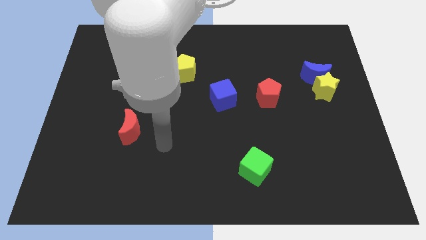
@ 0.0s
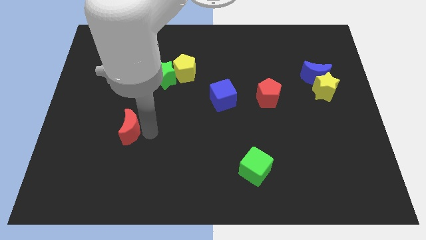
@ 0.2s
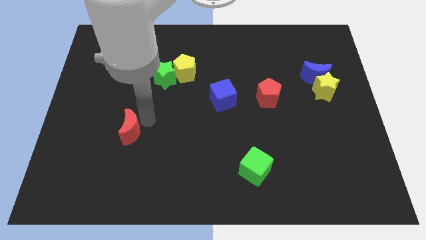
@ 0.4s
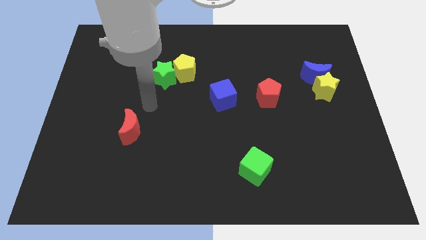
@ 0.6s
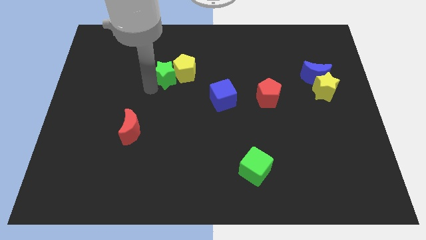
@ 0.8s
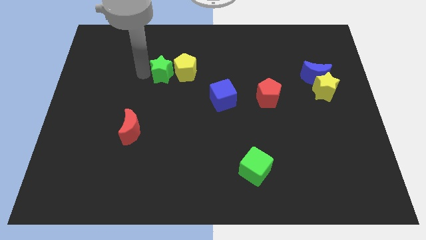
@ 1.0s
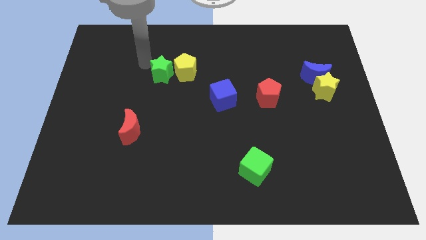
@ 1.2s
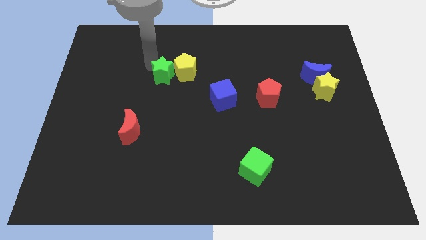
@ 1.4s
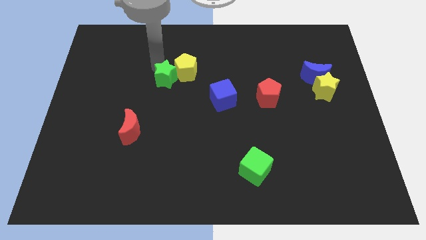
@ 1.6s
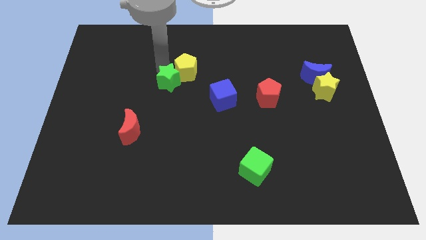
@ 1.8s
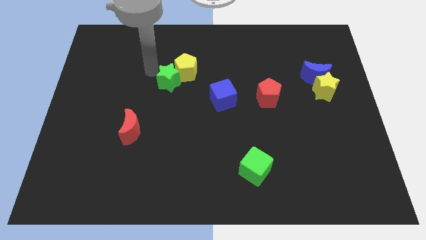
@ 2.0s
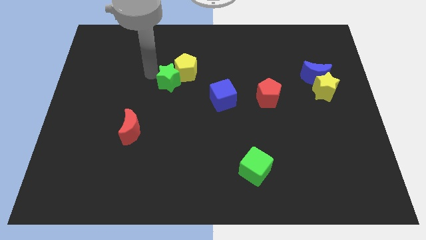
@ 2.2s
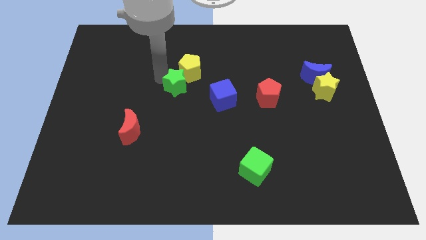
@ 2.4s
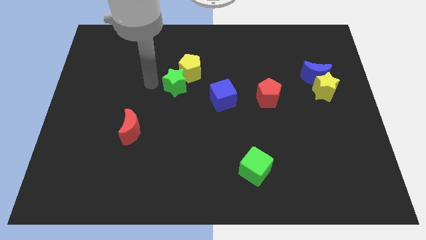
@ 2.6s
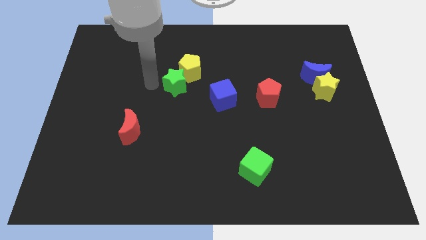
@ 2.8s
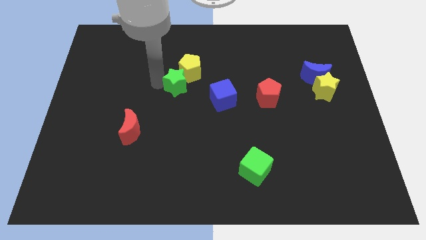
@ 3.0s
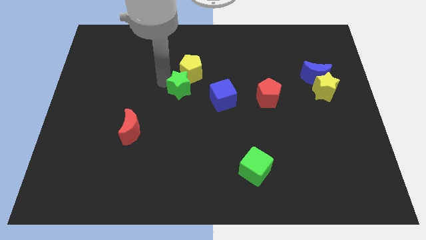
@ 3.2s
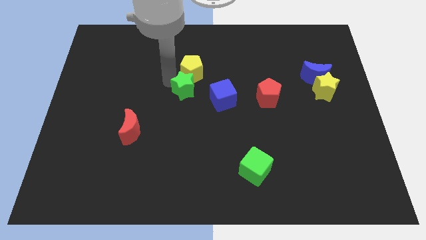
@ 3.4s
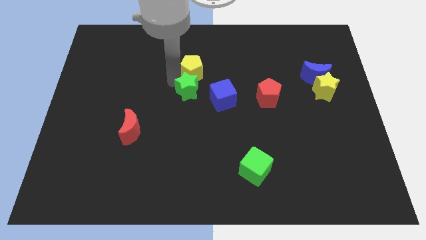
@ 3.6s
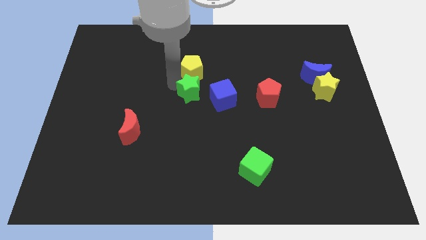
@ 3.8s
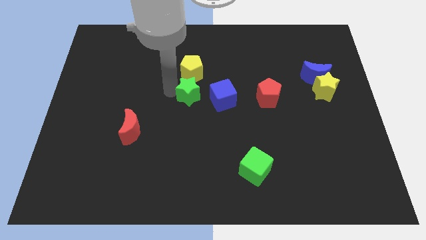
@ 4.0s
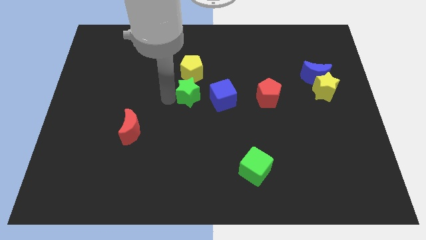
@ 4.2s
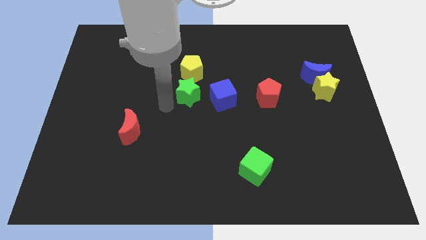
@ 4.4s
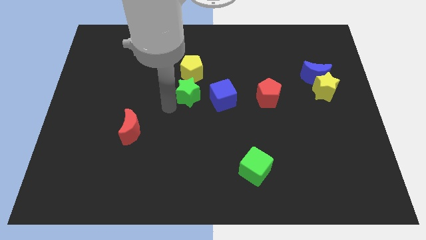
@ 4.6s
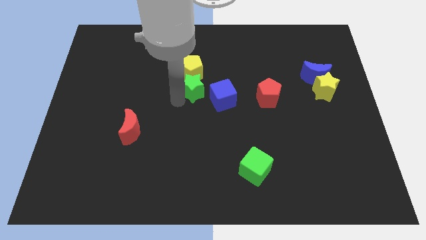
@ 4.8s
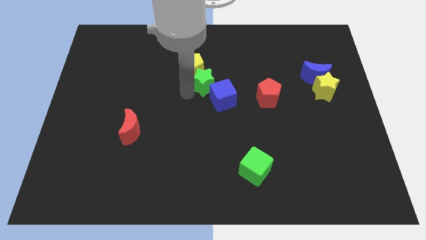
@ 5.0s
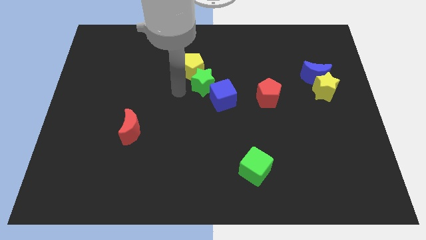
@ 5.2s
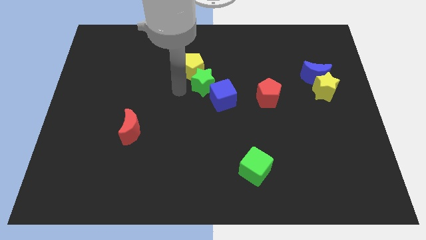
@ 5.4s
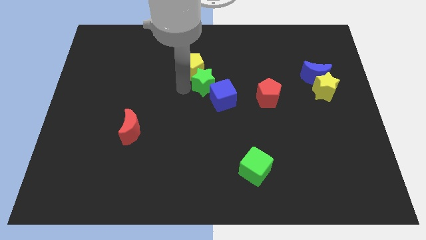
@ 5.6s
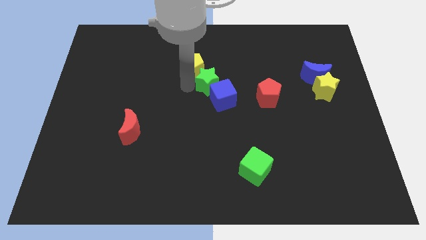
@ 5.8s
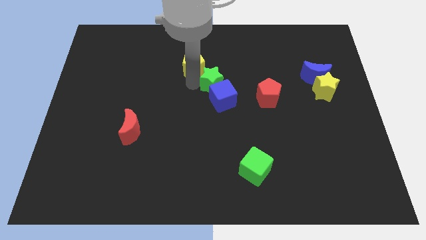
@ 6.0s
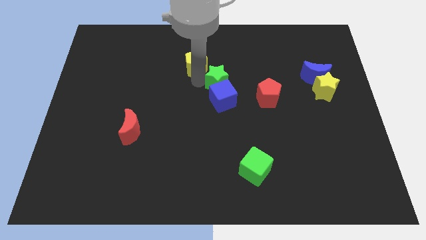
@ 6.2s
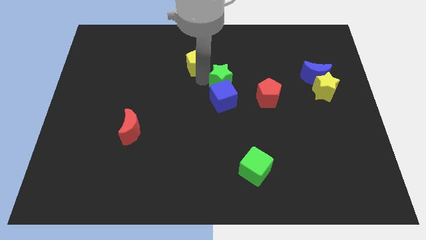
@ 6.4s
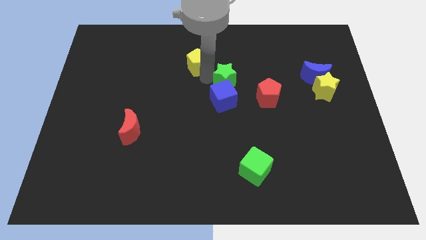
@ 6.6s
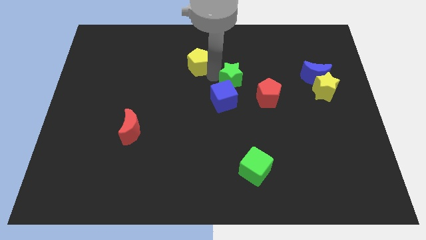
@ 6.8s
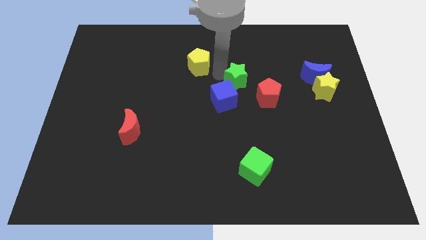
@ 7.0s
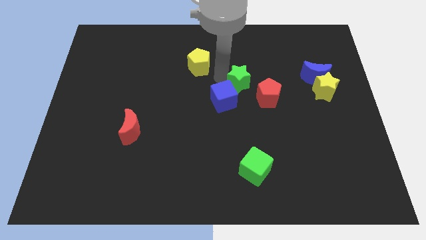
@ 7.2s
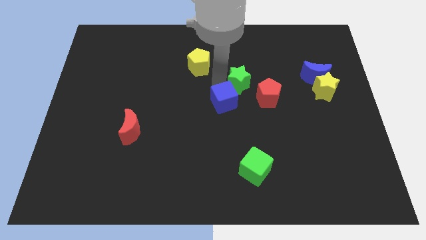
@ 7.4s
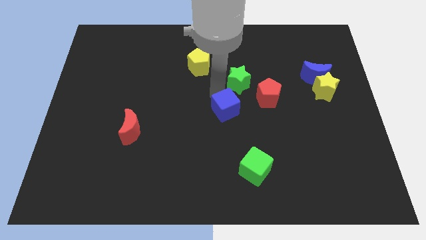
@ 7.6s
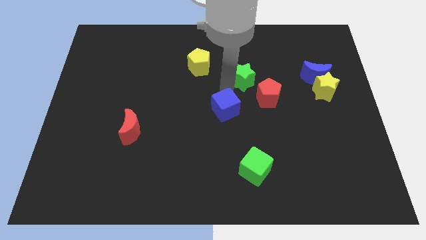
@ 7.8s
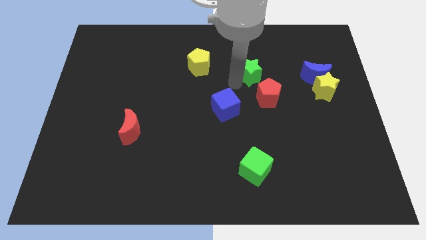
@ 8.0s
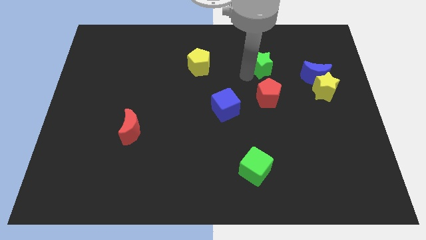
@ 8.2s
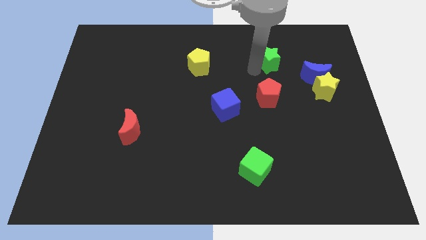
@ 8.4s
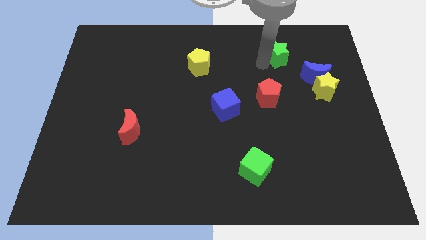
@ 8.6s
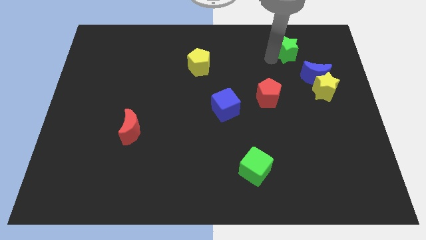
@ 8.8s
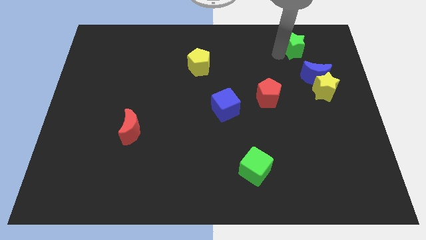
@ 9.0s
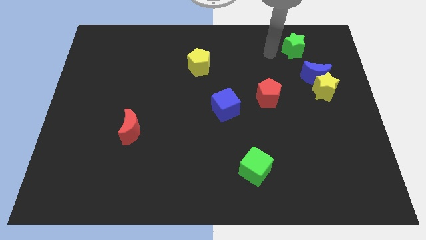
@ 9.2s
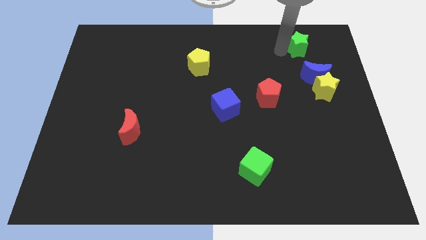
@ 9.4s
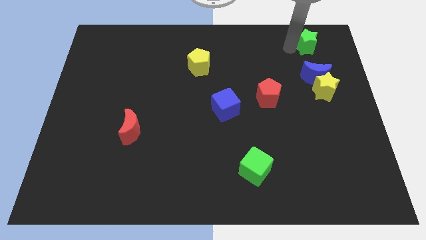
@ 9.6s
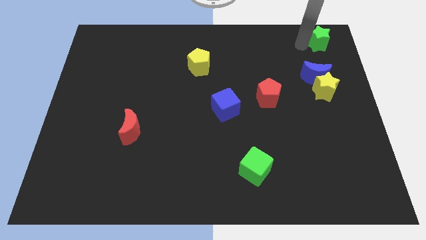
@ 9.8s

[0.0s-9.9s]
put the green star to the top right corner

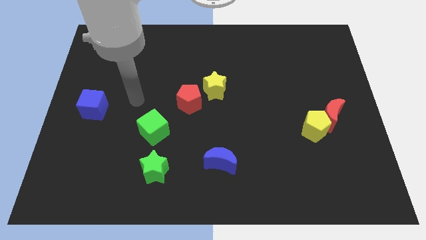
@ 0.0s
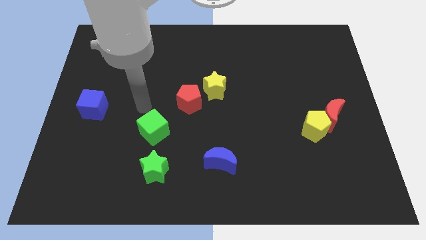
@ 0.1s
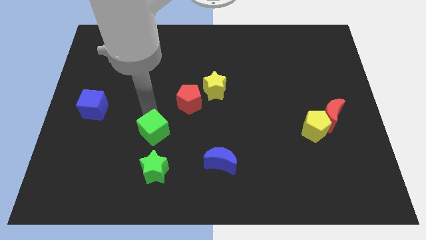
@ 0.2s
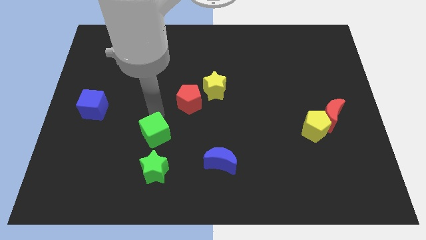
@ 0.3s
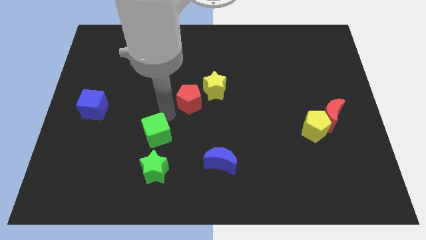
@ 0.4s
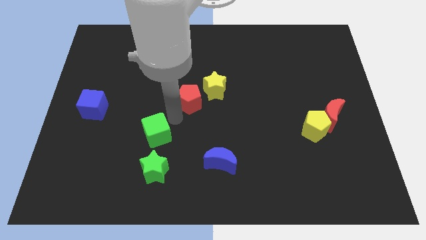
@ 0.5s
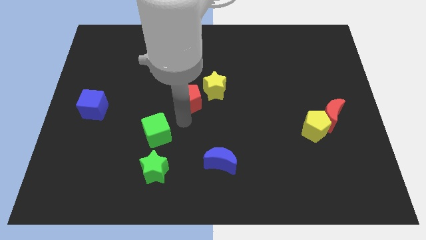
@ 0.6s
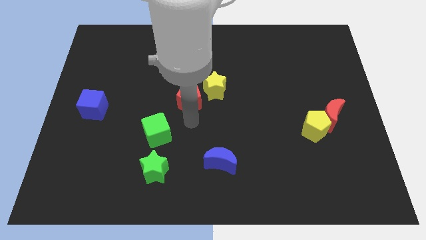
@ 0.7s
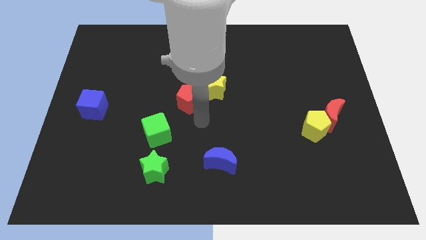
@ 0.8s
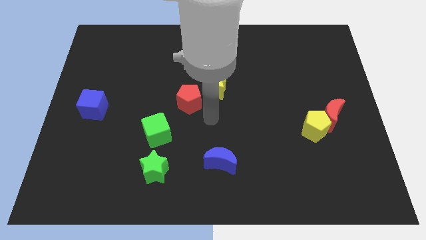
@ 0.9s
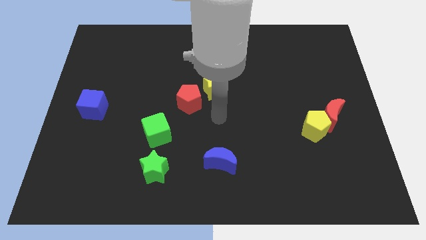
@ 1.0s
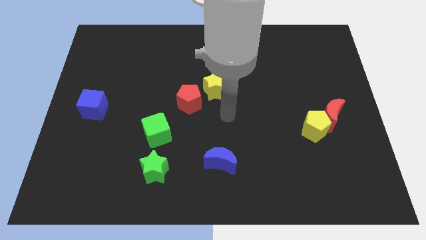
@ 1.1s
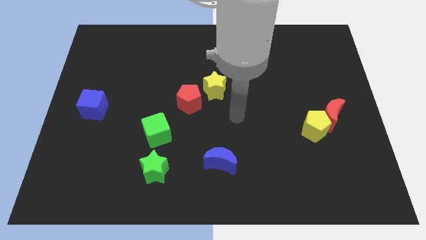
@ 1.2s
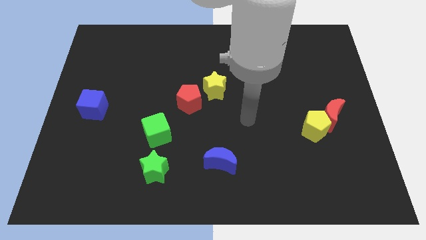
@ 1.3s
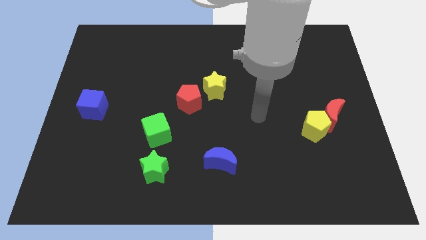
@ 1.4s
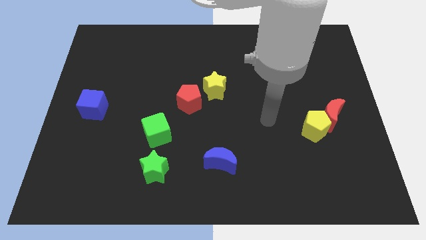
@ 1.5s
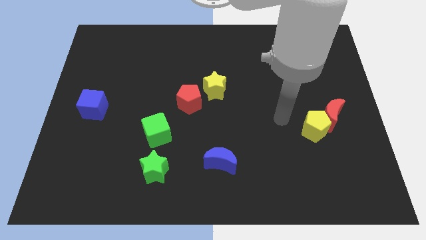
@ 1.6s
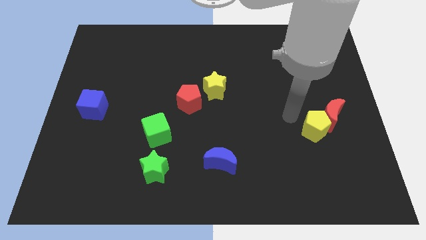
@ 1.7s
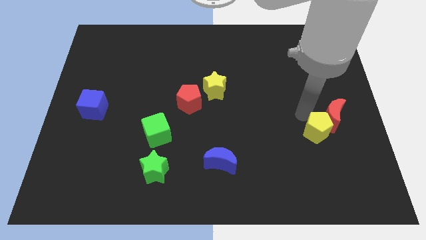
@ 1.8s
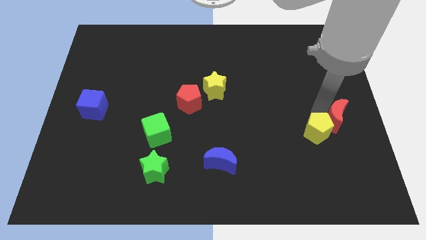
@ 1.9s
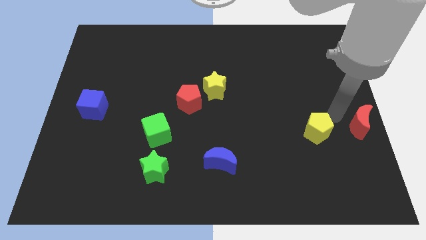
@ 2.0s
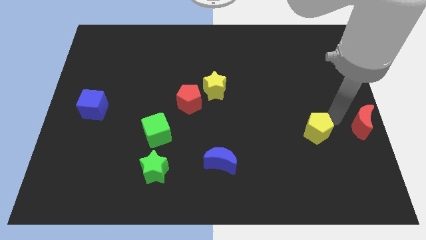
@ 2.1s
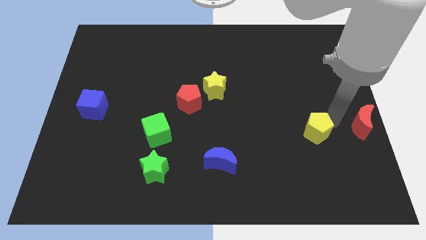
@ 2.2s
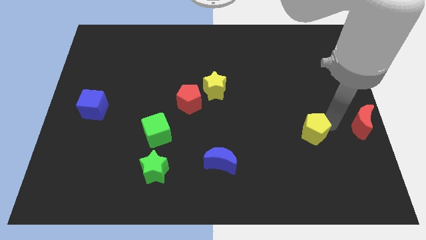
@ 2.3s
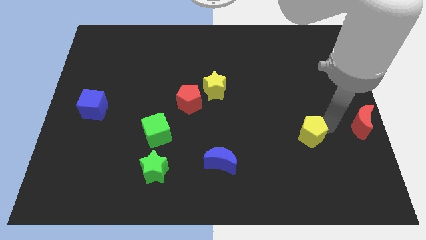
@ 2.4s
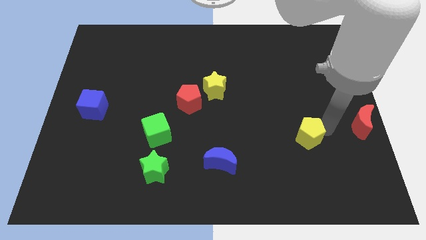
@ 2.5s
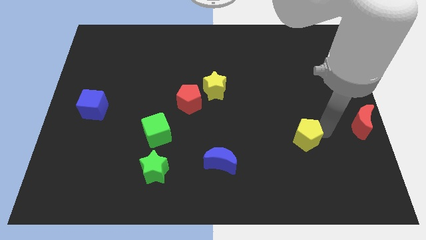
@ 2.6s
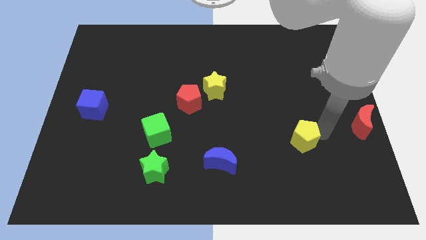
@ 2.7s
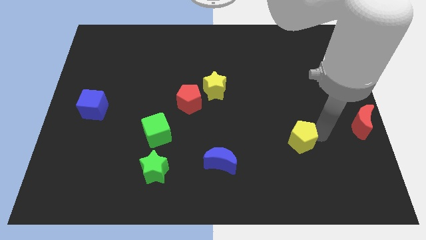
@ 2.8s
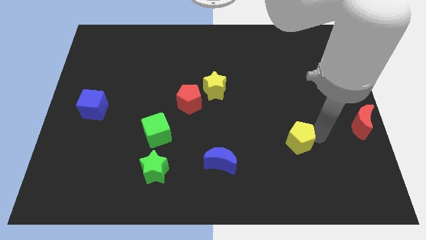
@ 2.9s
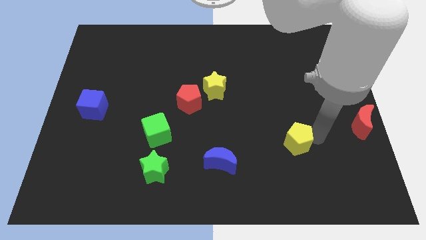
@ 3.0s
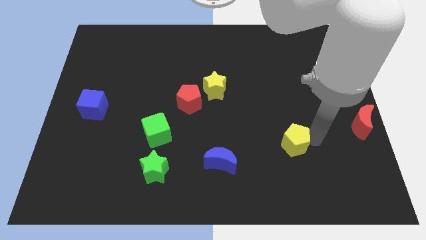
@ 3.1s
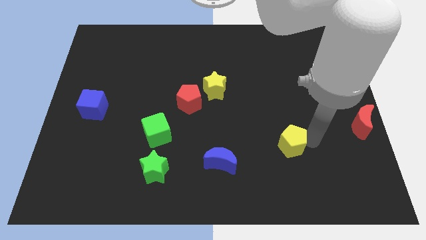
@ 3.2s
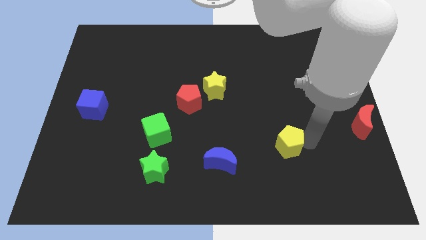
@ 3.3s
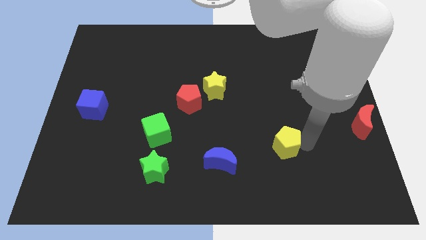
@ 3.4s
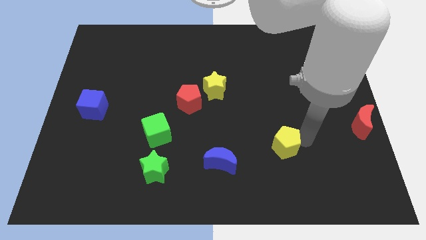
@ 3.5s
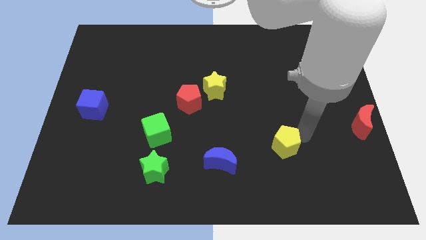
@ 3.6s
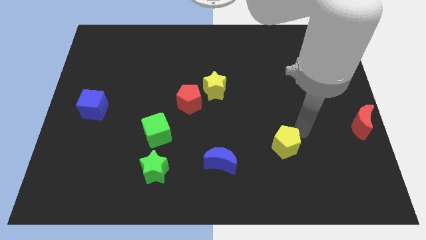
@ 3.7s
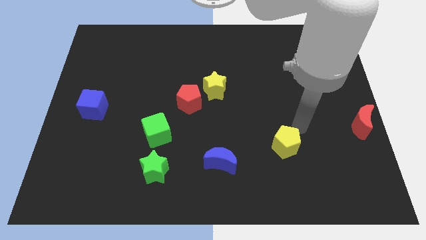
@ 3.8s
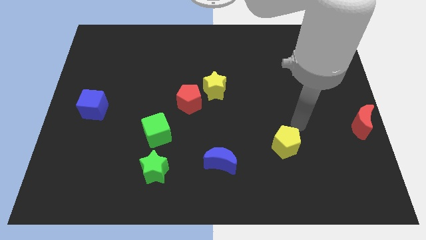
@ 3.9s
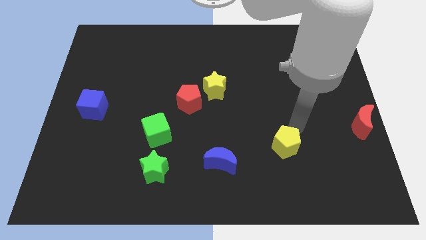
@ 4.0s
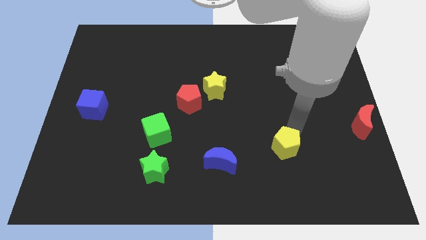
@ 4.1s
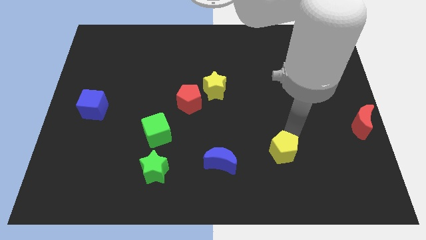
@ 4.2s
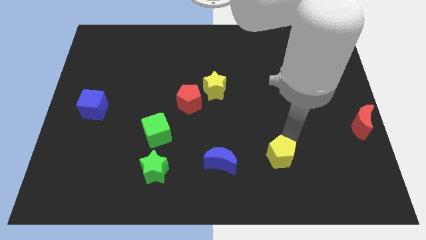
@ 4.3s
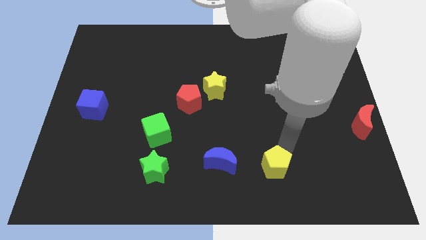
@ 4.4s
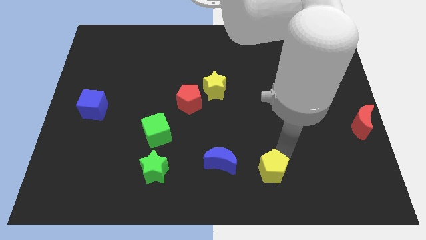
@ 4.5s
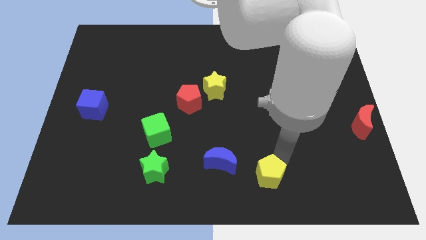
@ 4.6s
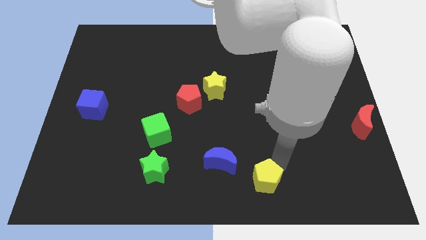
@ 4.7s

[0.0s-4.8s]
move the yellow pentagon to the bottom
